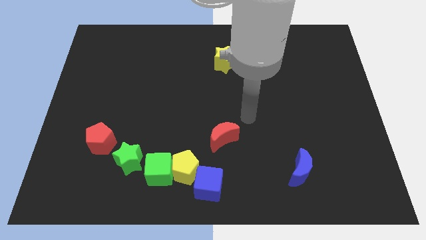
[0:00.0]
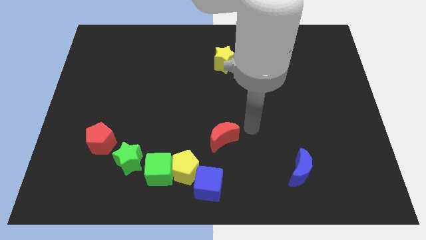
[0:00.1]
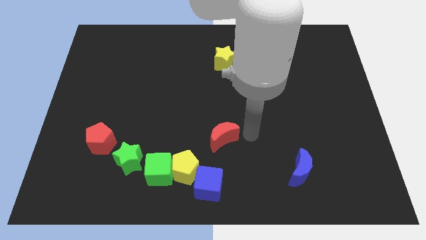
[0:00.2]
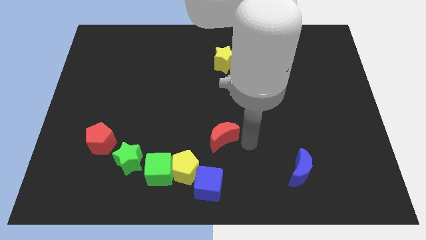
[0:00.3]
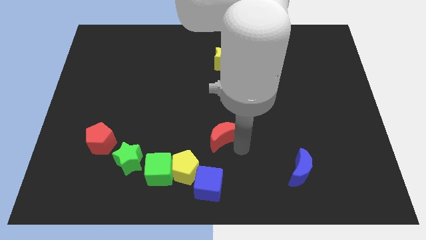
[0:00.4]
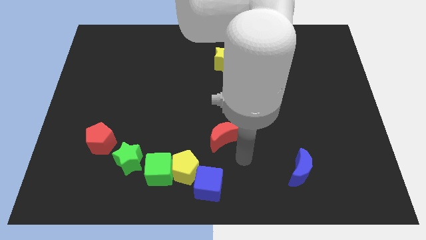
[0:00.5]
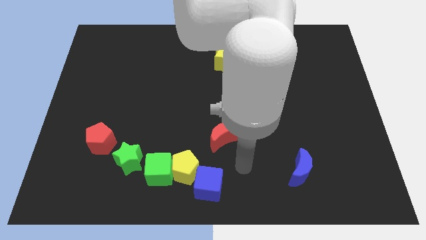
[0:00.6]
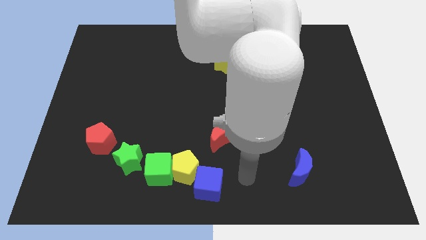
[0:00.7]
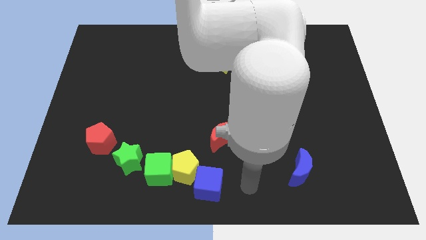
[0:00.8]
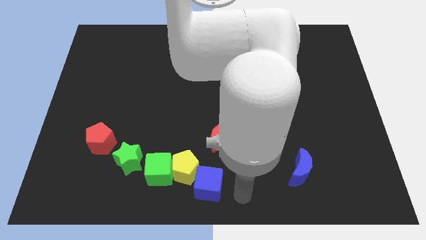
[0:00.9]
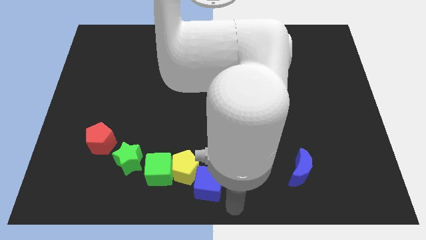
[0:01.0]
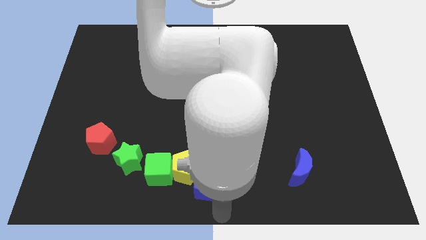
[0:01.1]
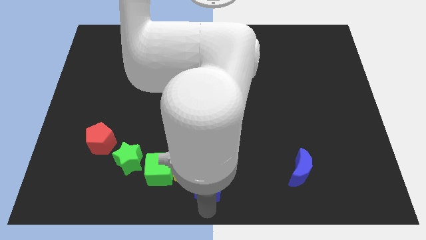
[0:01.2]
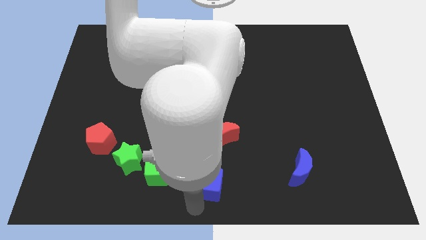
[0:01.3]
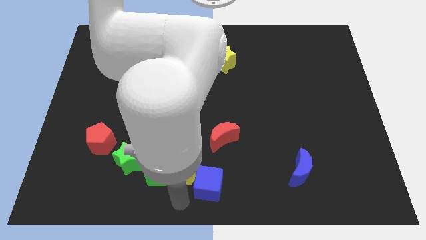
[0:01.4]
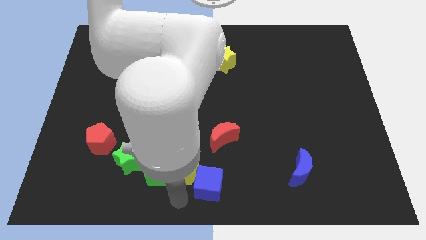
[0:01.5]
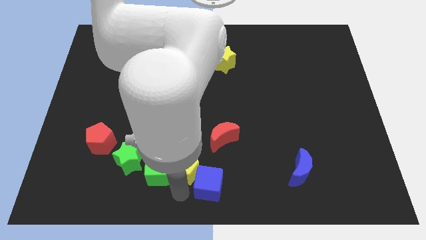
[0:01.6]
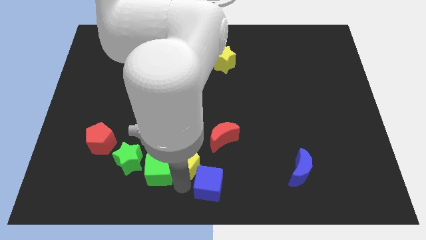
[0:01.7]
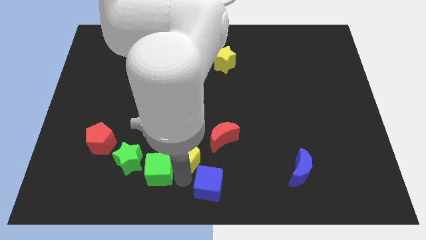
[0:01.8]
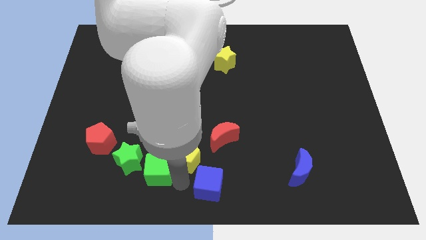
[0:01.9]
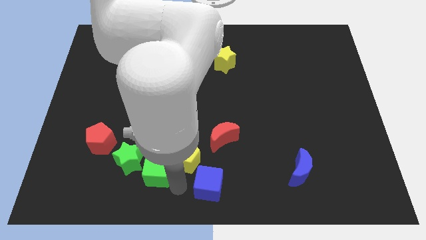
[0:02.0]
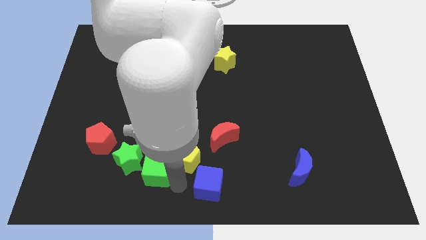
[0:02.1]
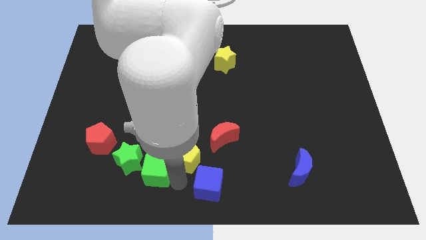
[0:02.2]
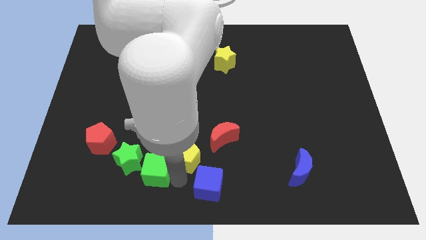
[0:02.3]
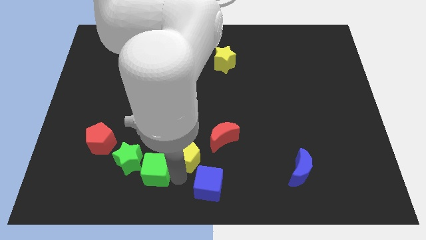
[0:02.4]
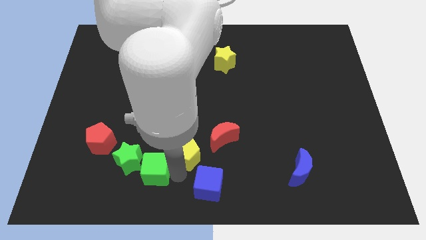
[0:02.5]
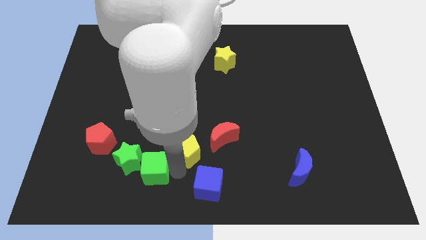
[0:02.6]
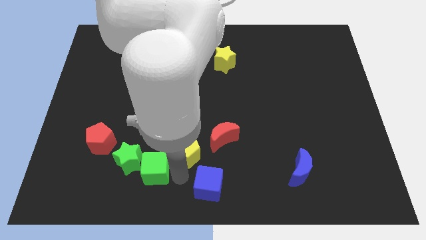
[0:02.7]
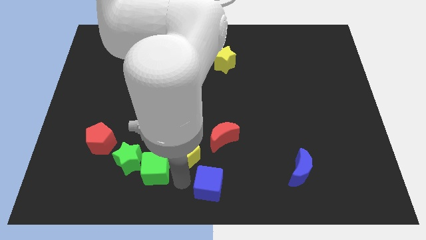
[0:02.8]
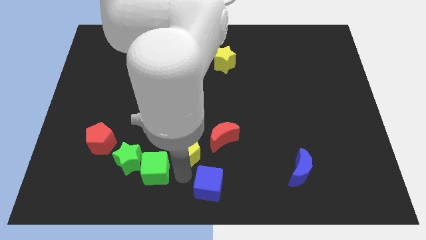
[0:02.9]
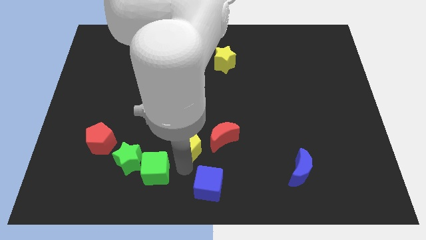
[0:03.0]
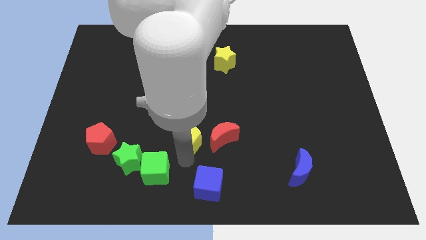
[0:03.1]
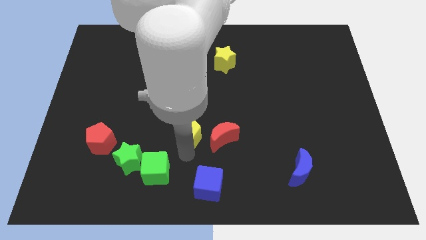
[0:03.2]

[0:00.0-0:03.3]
separate the yellow pentagon from the green cube and blue cube

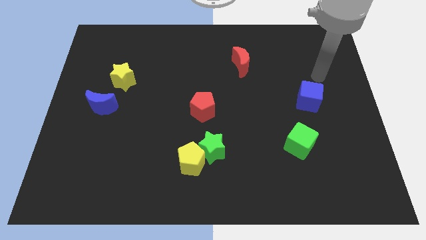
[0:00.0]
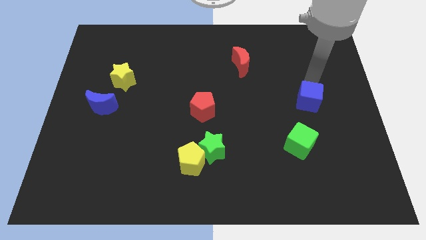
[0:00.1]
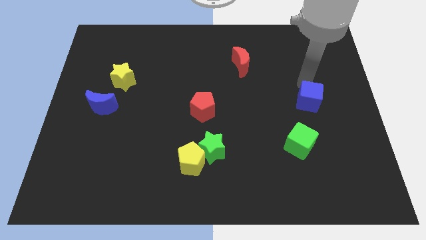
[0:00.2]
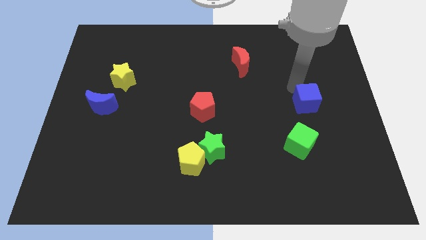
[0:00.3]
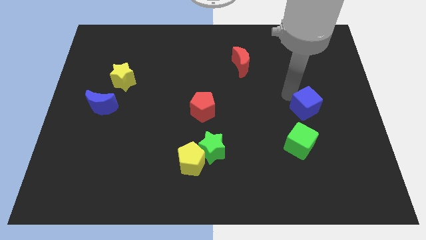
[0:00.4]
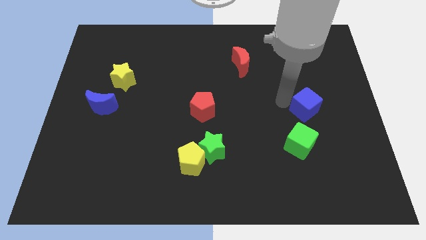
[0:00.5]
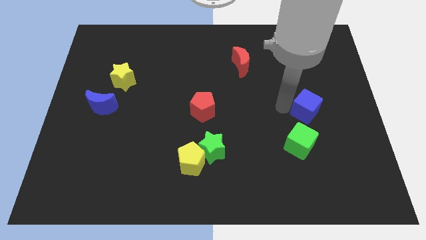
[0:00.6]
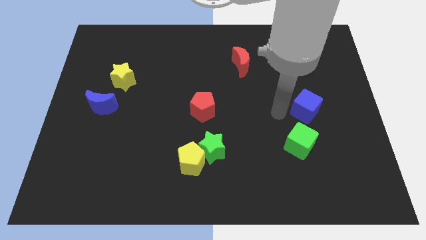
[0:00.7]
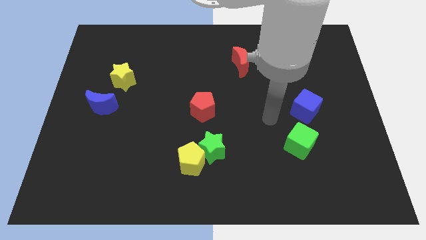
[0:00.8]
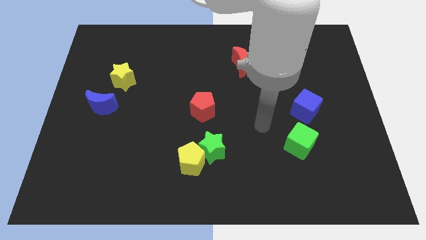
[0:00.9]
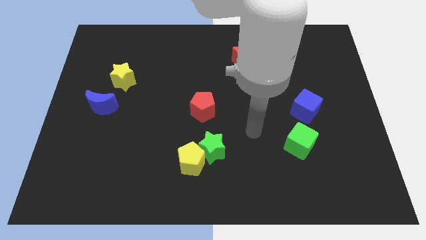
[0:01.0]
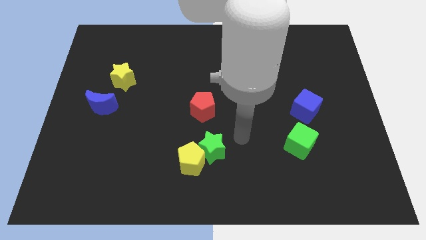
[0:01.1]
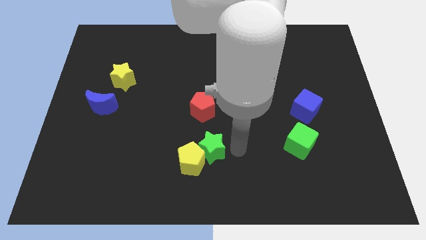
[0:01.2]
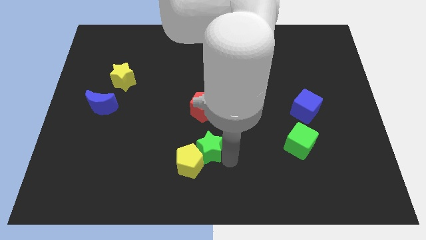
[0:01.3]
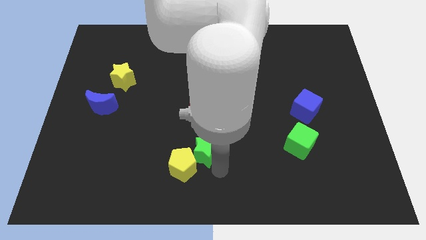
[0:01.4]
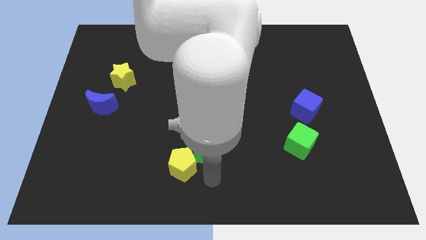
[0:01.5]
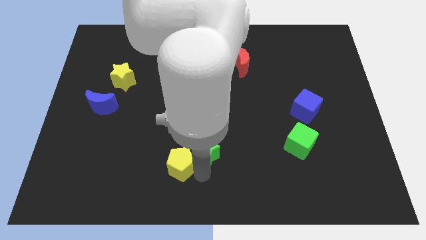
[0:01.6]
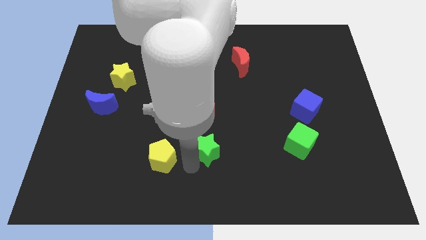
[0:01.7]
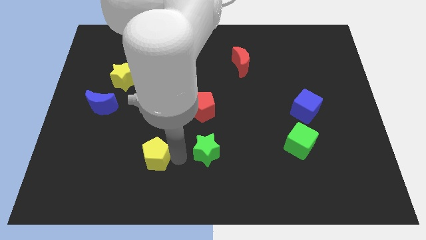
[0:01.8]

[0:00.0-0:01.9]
separate the green star from the yellow pentagon

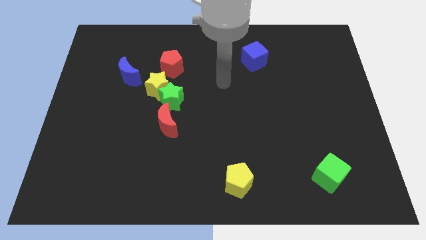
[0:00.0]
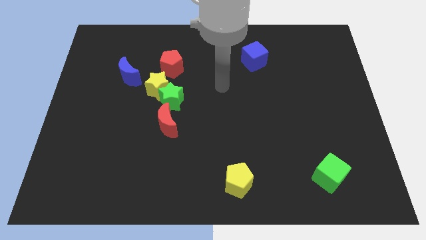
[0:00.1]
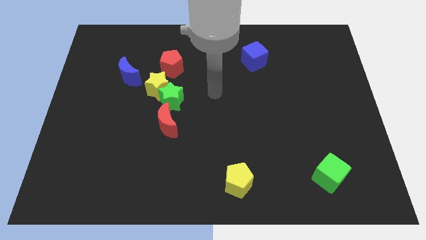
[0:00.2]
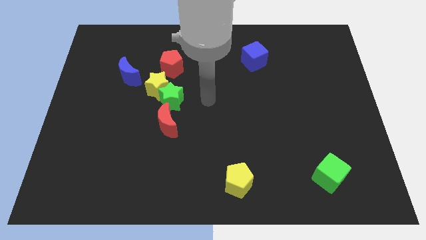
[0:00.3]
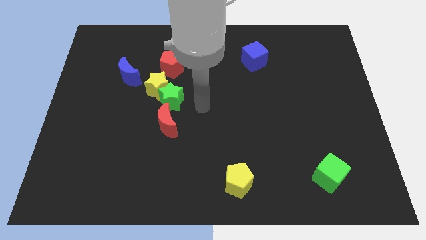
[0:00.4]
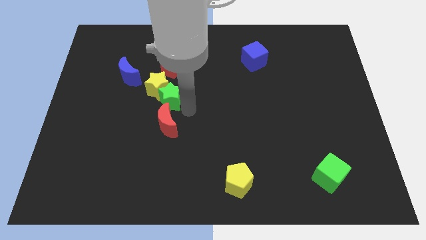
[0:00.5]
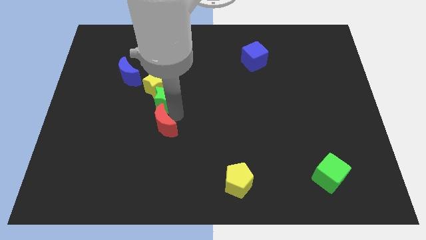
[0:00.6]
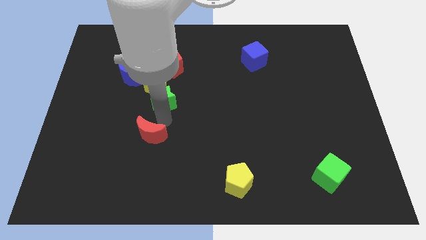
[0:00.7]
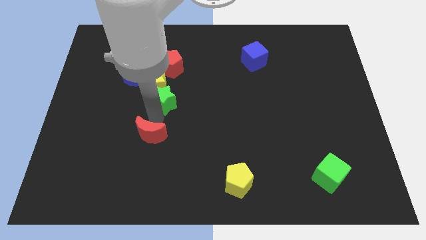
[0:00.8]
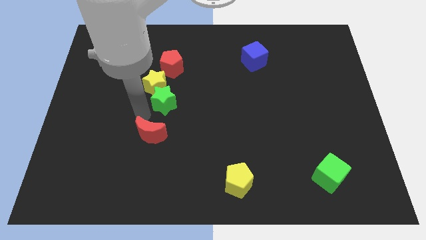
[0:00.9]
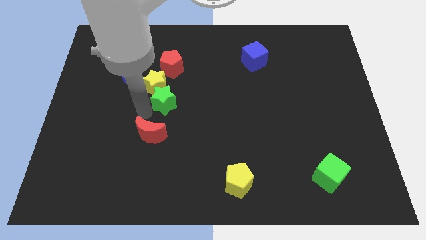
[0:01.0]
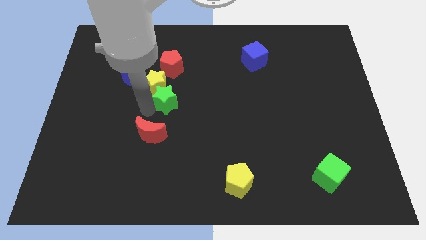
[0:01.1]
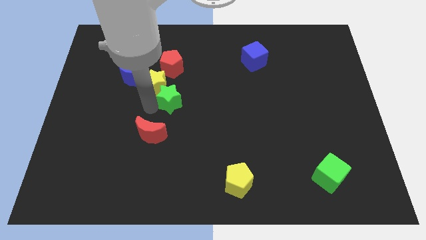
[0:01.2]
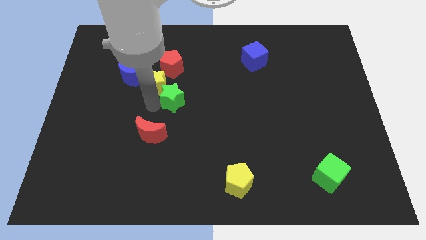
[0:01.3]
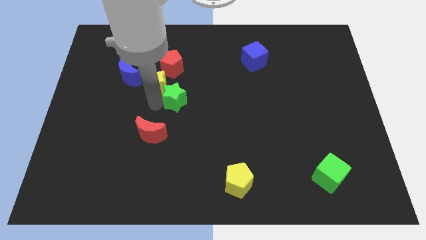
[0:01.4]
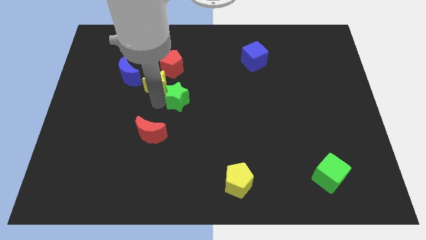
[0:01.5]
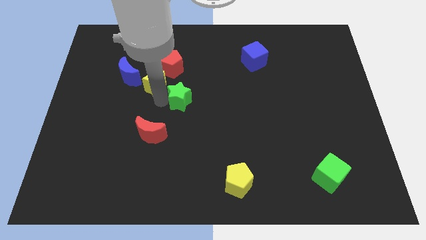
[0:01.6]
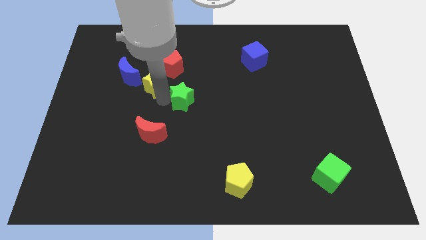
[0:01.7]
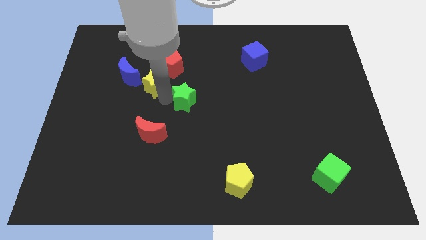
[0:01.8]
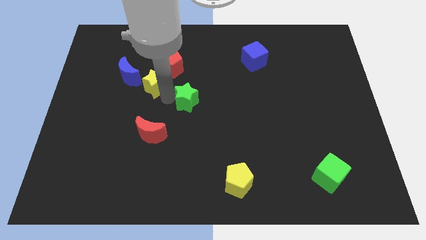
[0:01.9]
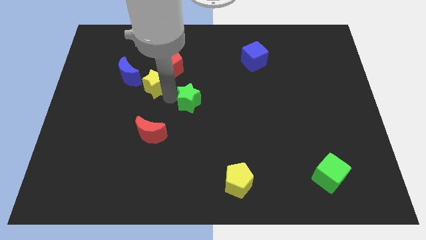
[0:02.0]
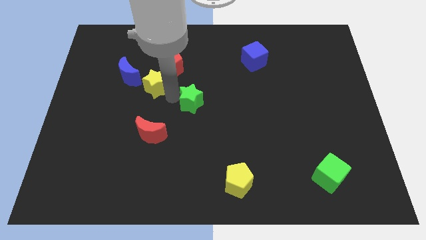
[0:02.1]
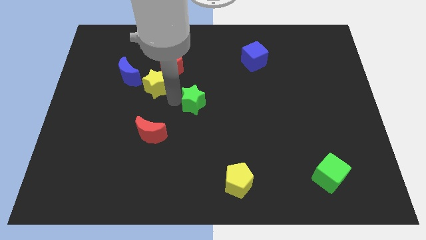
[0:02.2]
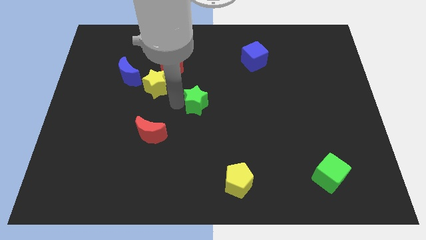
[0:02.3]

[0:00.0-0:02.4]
separate the green star from the yellow star and red moon

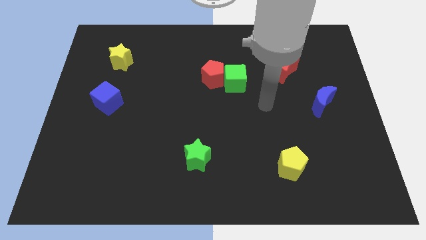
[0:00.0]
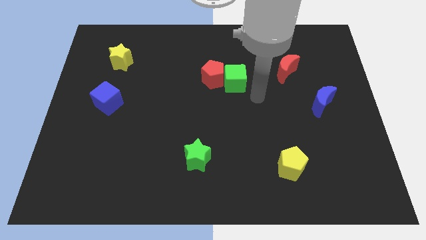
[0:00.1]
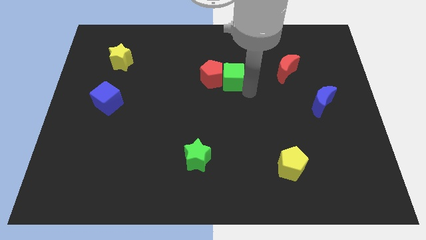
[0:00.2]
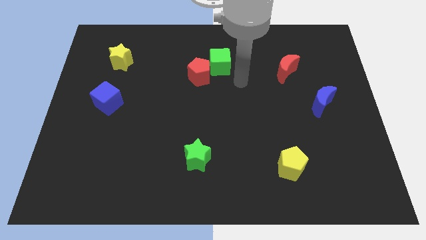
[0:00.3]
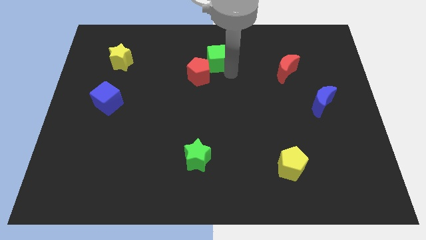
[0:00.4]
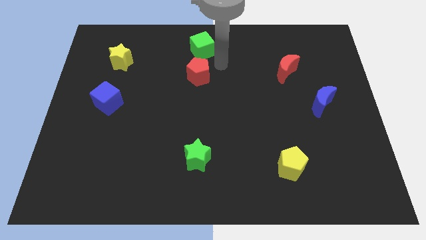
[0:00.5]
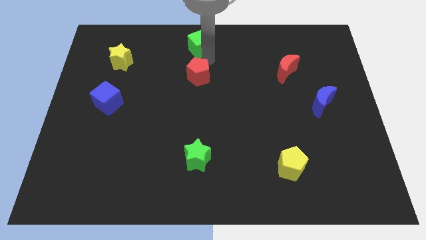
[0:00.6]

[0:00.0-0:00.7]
pull the red pentagon apart from the green cube

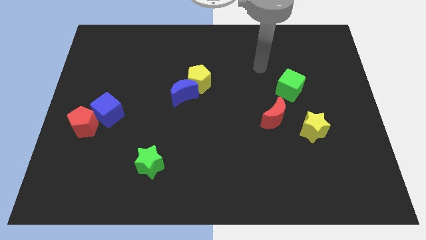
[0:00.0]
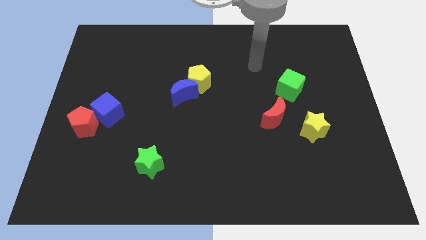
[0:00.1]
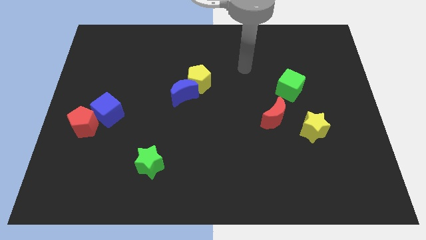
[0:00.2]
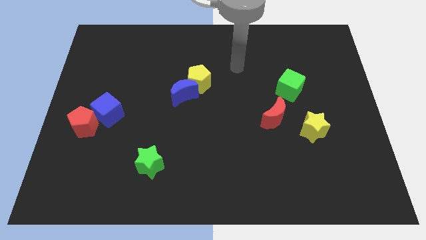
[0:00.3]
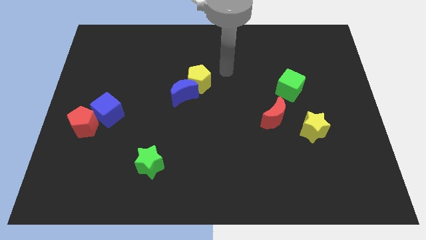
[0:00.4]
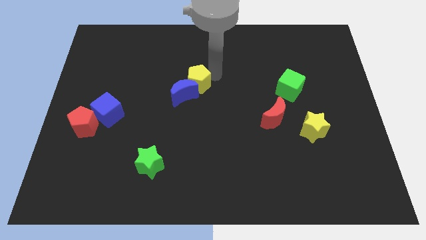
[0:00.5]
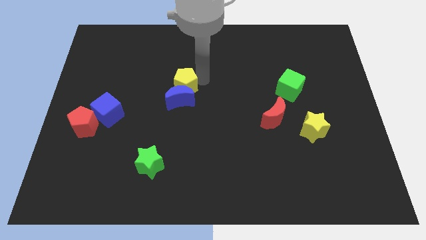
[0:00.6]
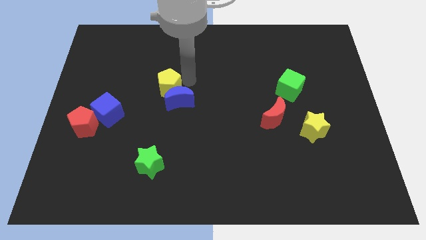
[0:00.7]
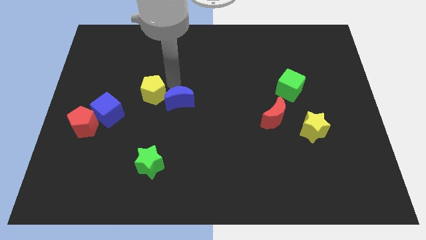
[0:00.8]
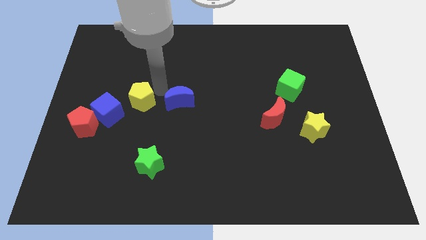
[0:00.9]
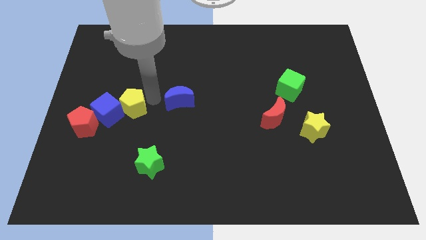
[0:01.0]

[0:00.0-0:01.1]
separate the blue moon from the yellow pentagon
